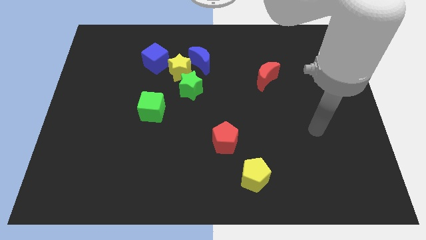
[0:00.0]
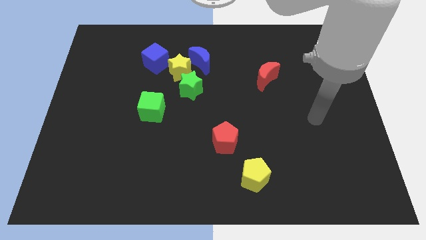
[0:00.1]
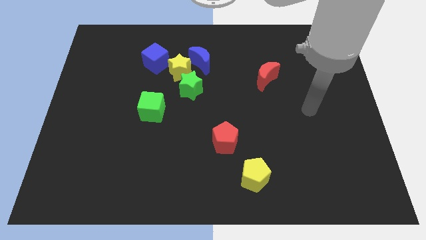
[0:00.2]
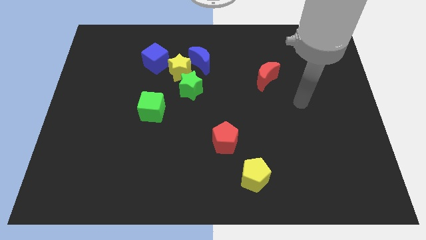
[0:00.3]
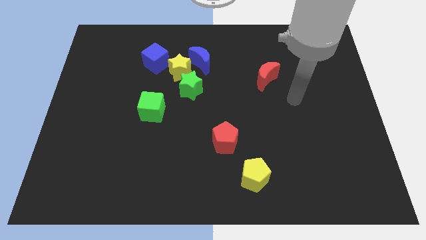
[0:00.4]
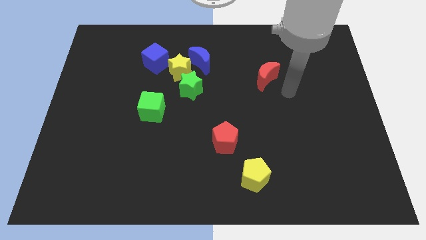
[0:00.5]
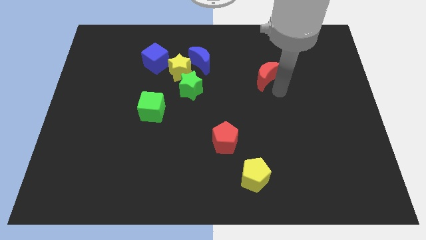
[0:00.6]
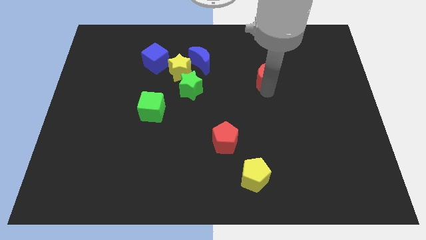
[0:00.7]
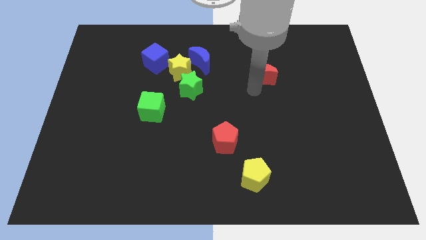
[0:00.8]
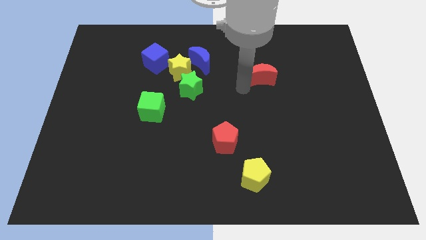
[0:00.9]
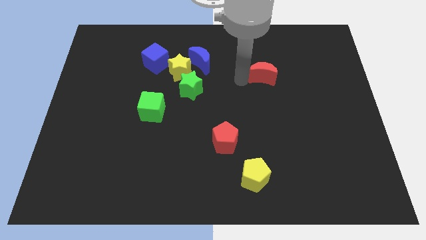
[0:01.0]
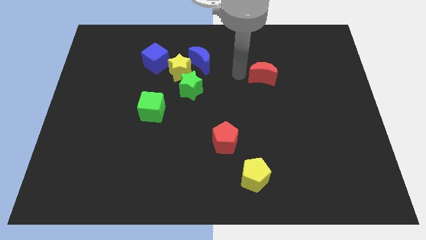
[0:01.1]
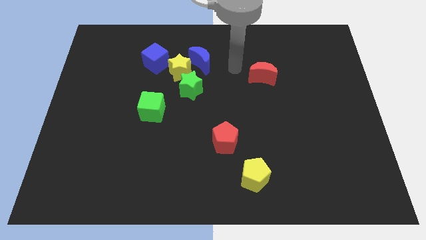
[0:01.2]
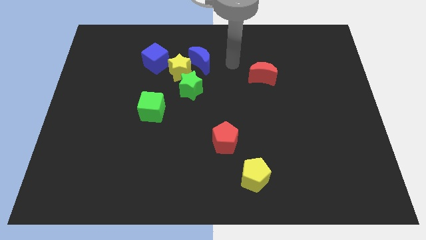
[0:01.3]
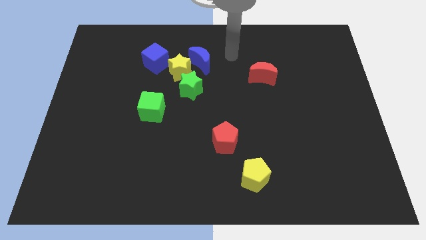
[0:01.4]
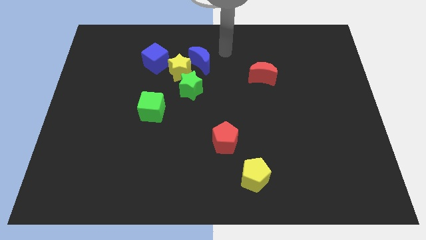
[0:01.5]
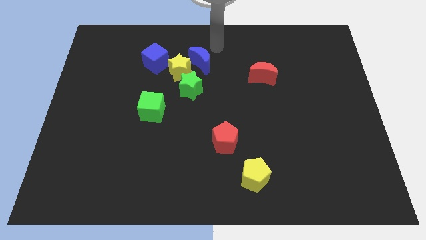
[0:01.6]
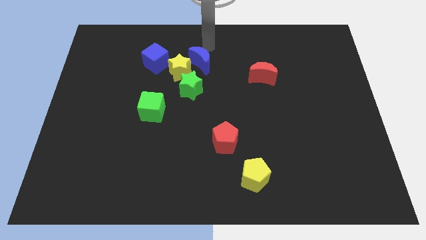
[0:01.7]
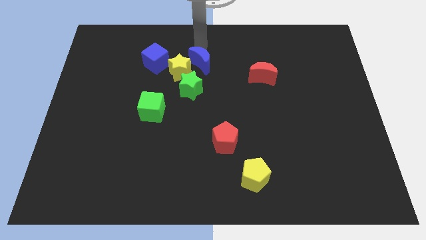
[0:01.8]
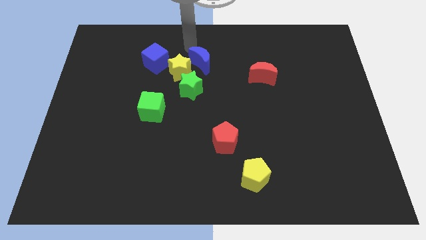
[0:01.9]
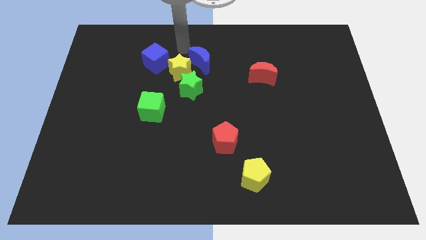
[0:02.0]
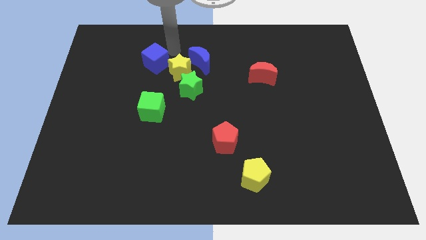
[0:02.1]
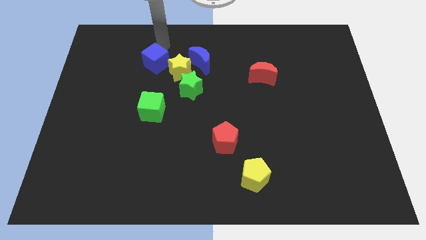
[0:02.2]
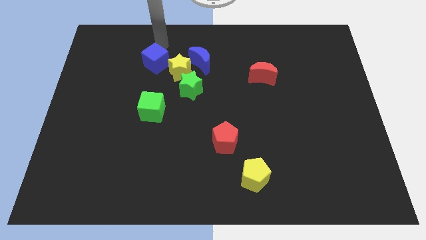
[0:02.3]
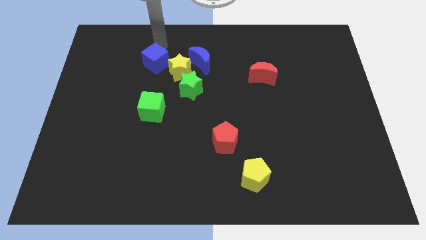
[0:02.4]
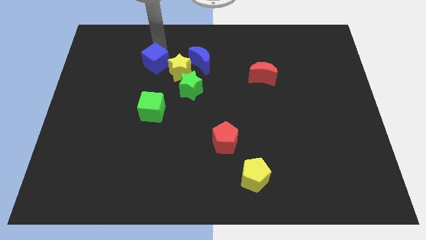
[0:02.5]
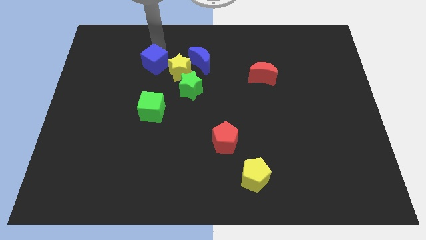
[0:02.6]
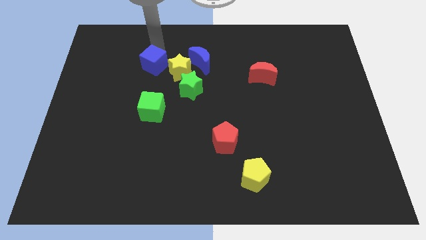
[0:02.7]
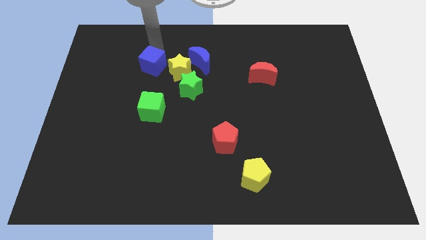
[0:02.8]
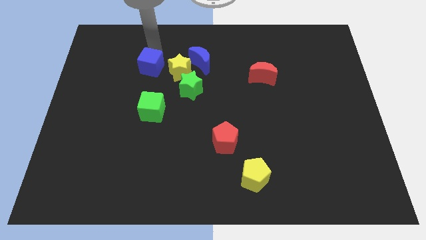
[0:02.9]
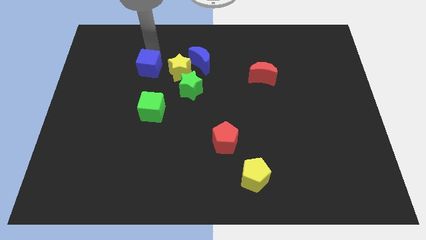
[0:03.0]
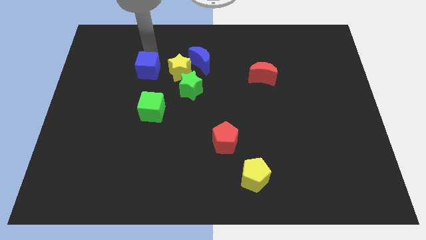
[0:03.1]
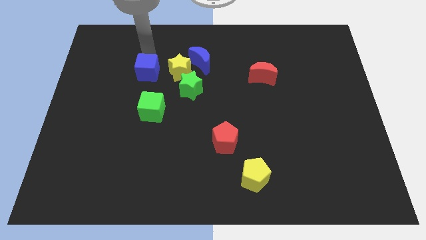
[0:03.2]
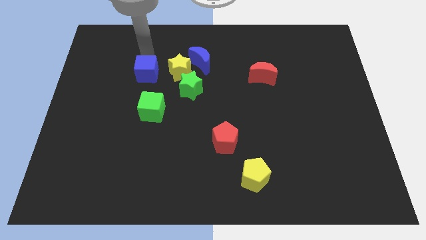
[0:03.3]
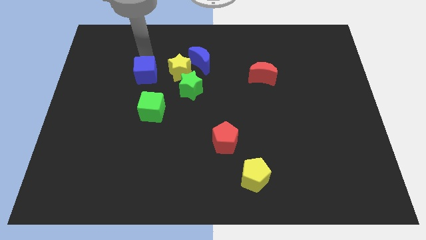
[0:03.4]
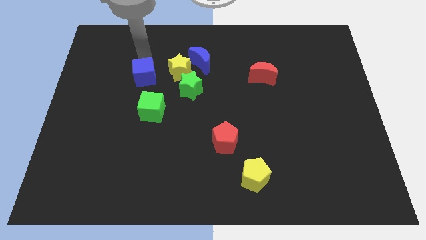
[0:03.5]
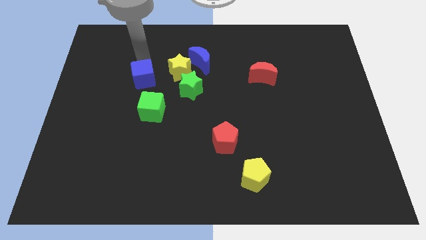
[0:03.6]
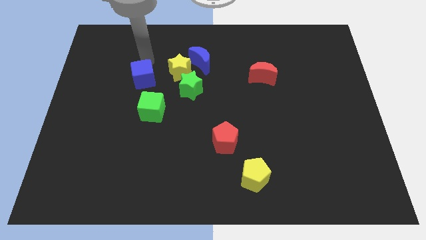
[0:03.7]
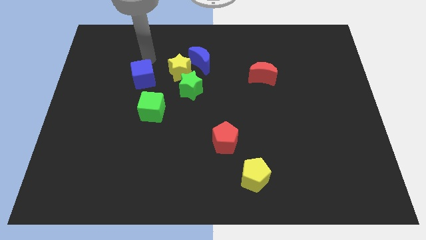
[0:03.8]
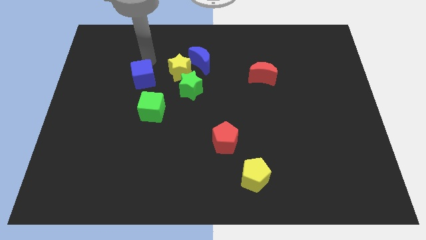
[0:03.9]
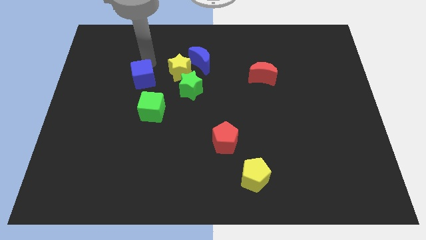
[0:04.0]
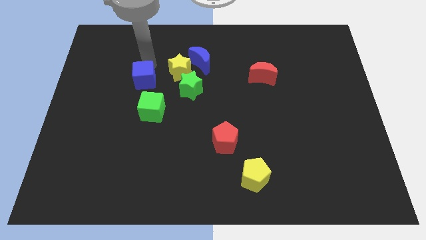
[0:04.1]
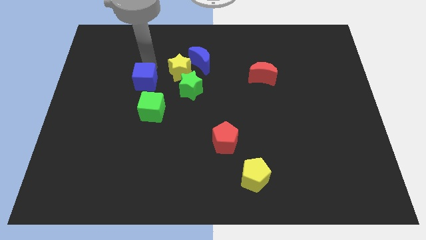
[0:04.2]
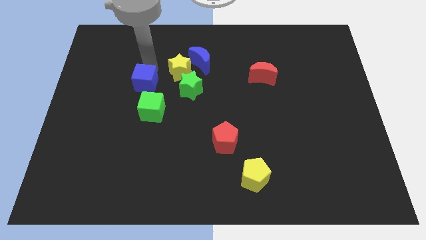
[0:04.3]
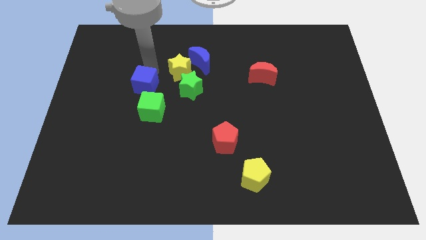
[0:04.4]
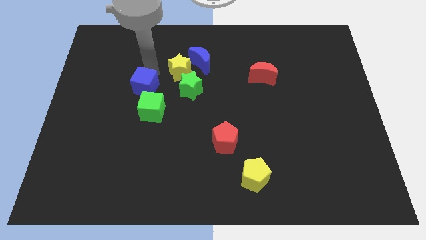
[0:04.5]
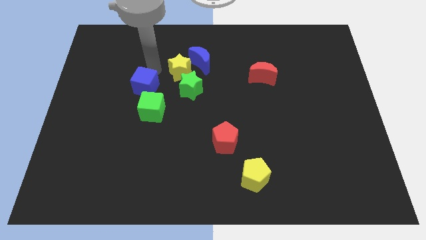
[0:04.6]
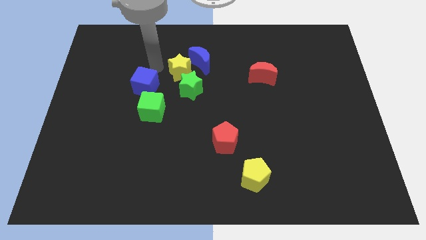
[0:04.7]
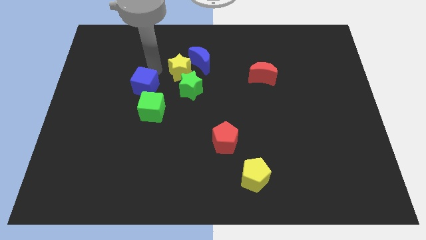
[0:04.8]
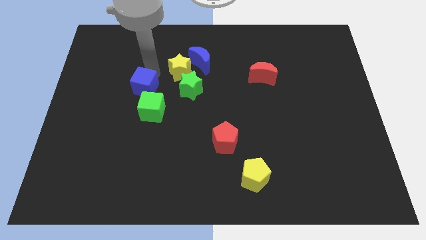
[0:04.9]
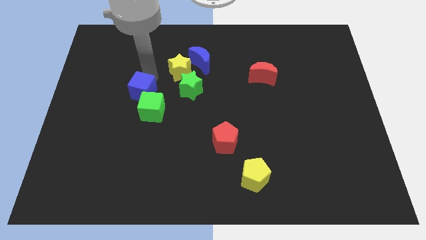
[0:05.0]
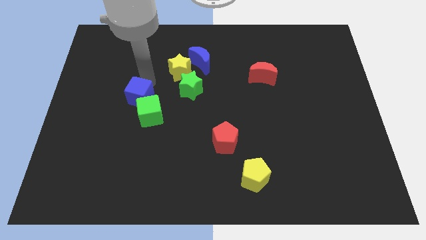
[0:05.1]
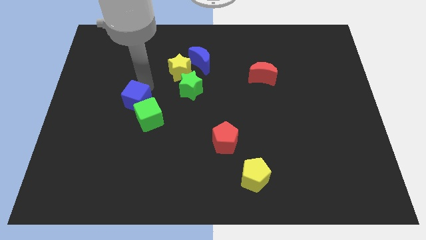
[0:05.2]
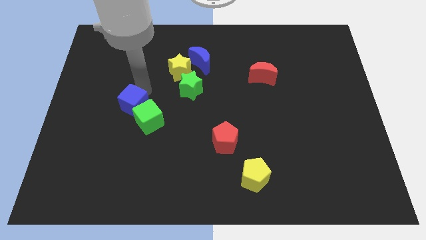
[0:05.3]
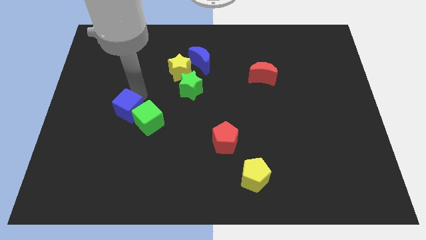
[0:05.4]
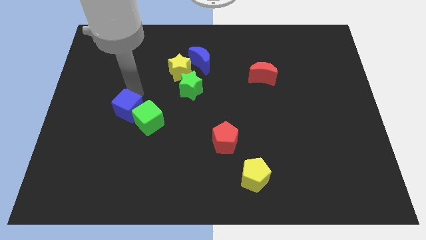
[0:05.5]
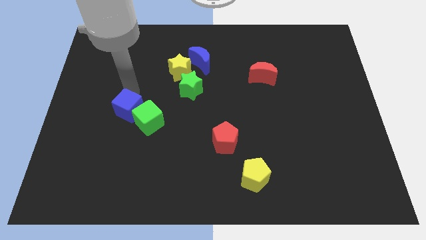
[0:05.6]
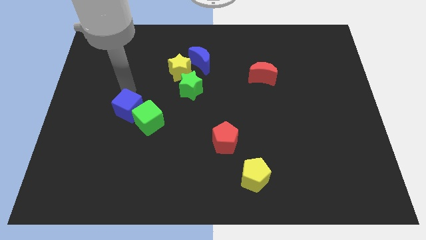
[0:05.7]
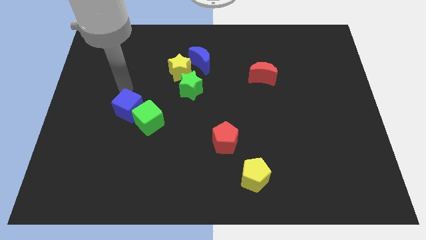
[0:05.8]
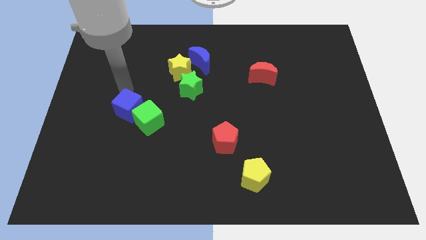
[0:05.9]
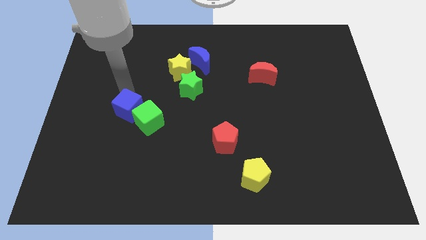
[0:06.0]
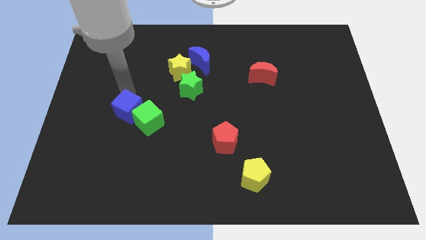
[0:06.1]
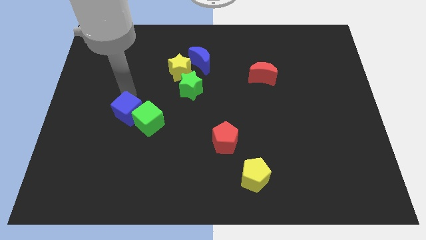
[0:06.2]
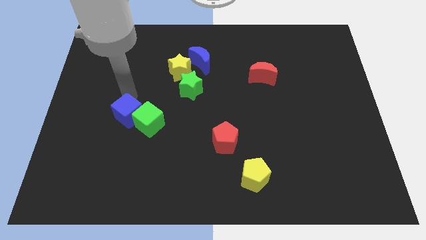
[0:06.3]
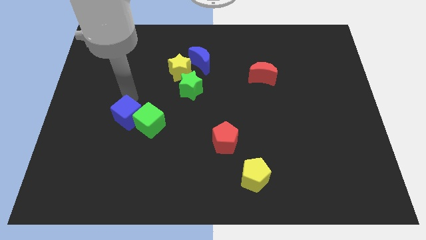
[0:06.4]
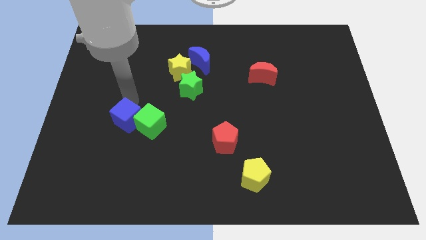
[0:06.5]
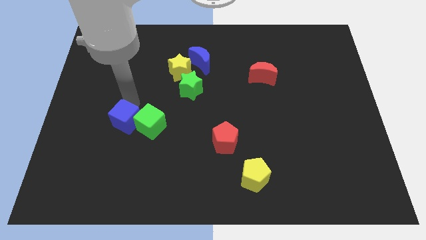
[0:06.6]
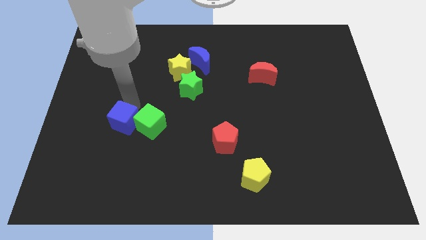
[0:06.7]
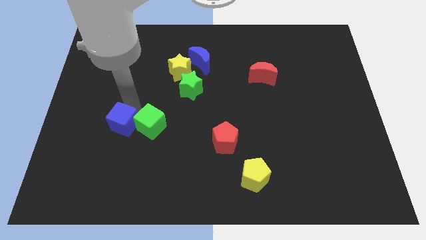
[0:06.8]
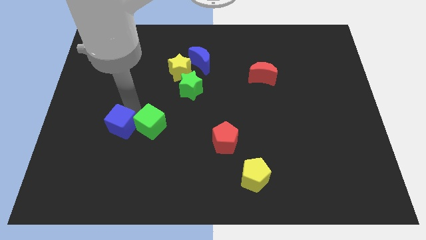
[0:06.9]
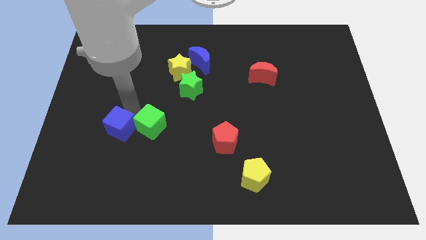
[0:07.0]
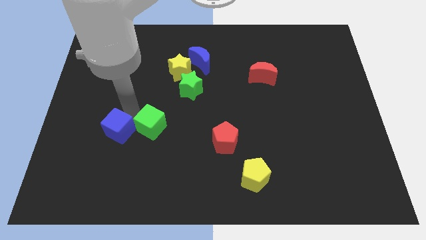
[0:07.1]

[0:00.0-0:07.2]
move the blue cube down

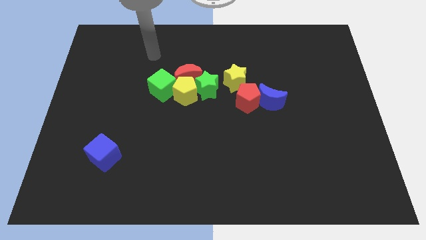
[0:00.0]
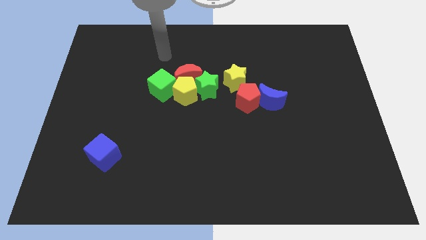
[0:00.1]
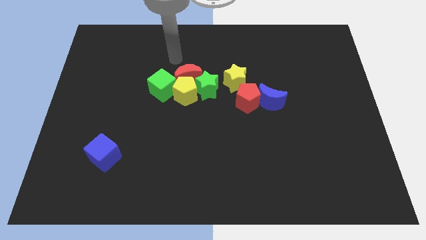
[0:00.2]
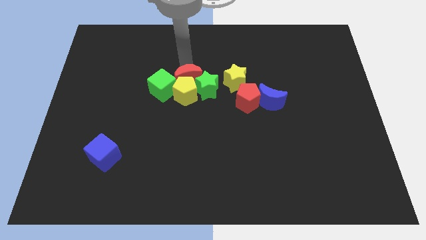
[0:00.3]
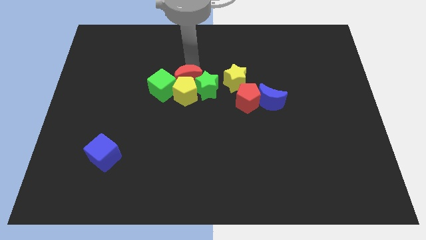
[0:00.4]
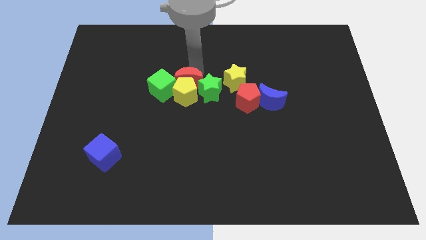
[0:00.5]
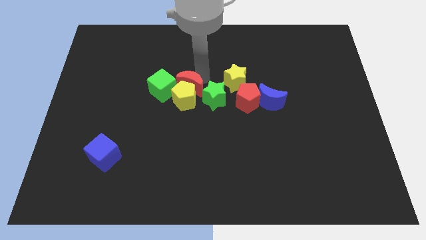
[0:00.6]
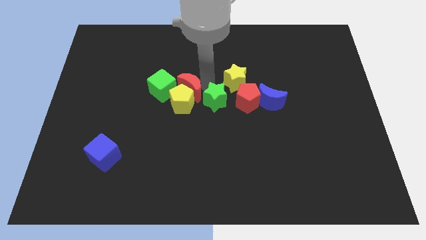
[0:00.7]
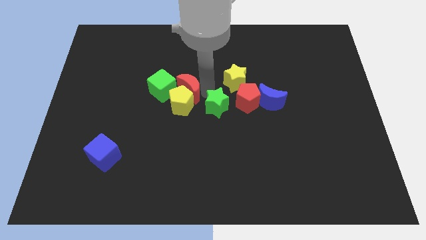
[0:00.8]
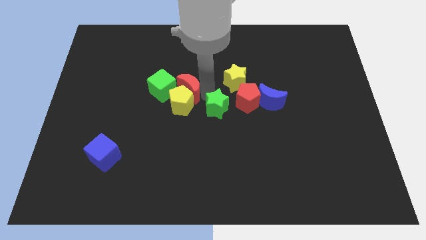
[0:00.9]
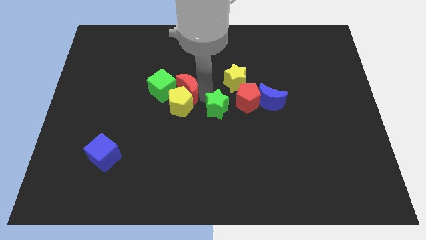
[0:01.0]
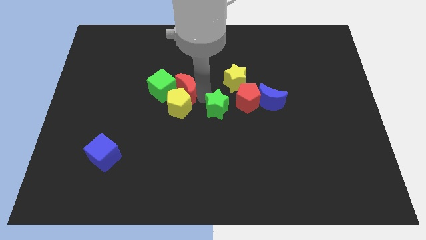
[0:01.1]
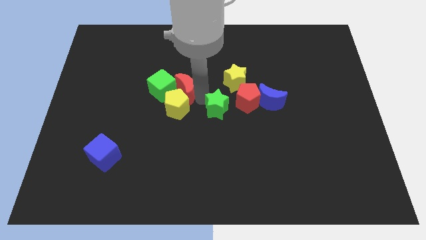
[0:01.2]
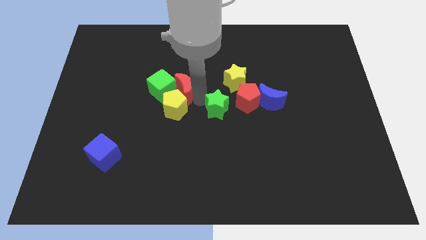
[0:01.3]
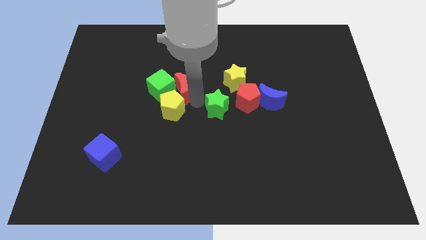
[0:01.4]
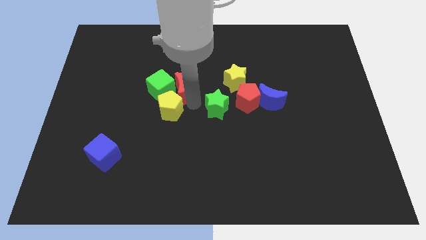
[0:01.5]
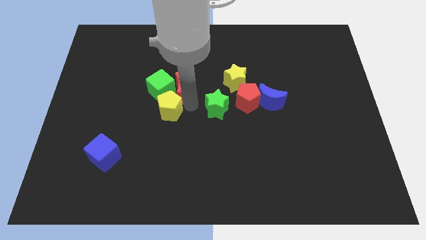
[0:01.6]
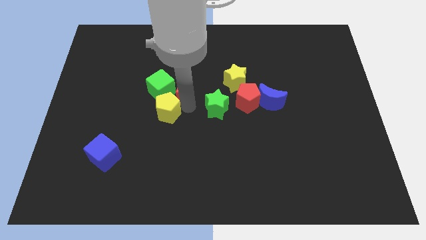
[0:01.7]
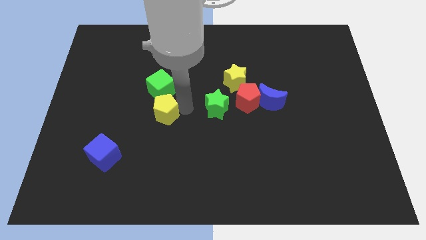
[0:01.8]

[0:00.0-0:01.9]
push the yellow pentagon slightly downwards and then left
